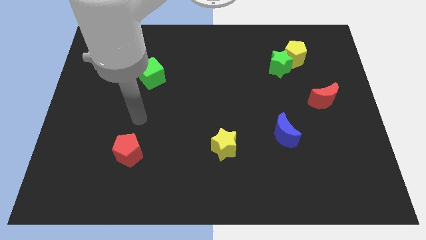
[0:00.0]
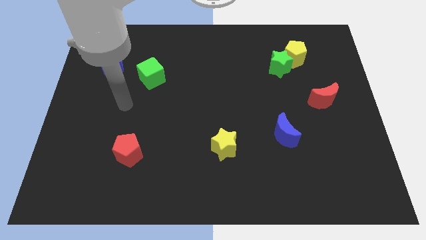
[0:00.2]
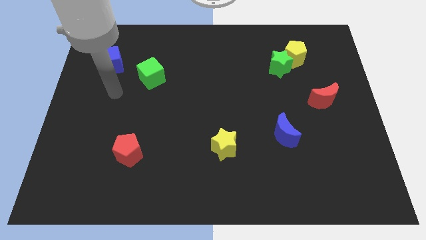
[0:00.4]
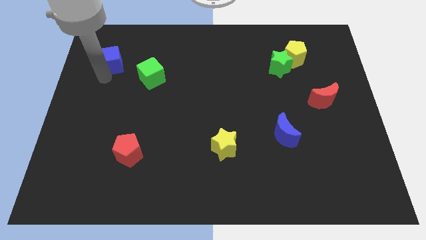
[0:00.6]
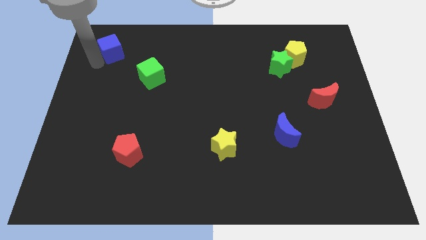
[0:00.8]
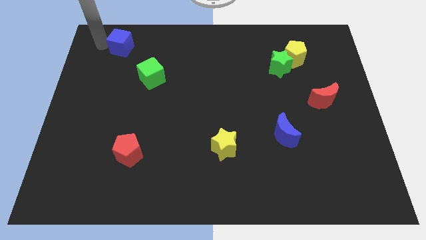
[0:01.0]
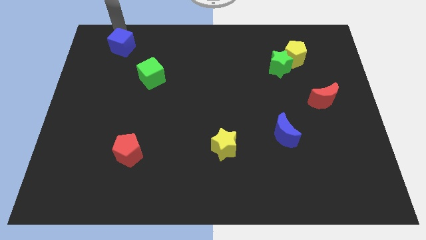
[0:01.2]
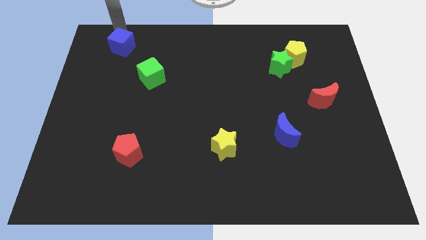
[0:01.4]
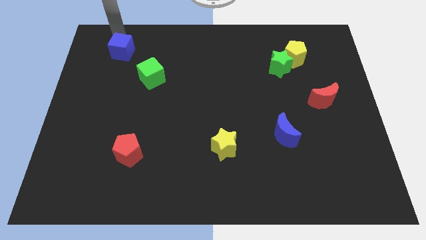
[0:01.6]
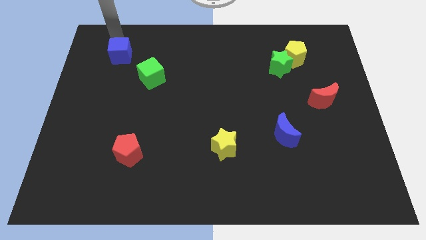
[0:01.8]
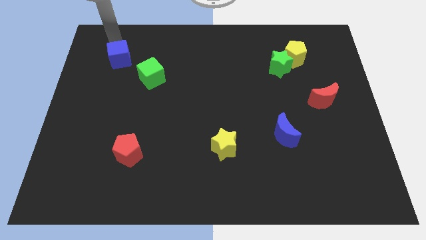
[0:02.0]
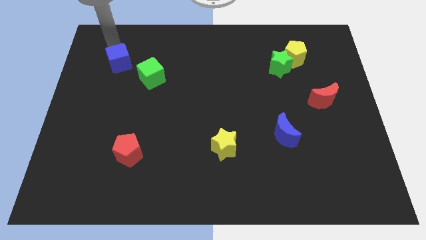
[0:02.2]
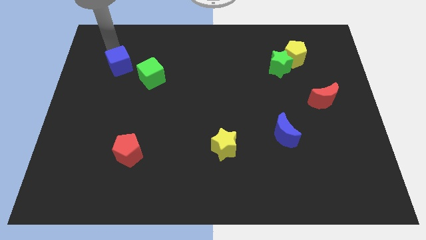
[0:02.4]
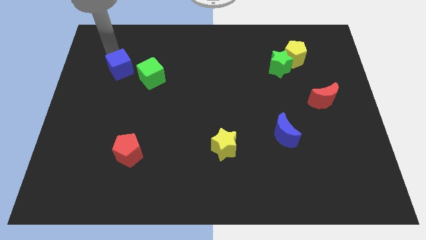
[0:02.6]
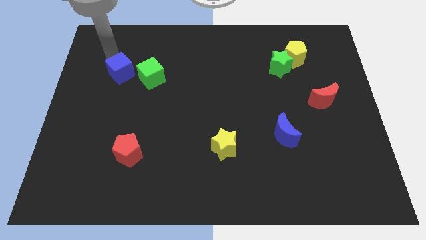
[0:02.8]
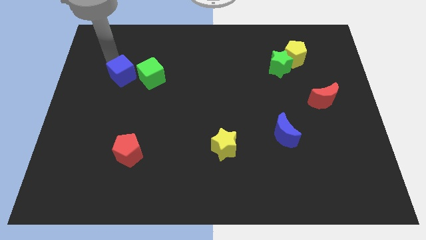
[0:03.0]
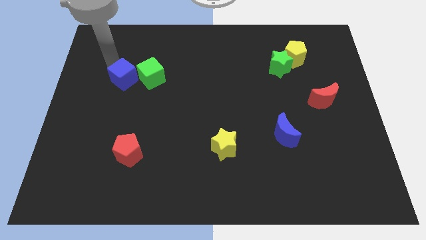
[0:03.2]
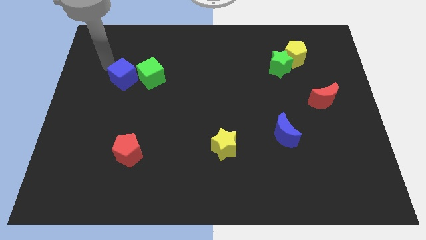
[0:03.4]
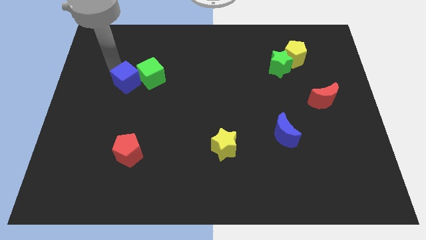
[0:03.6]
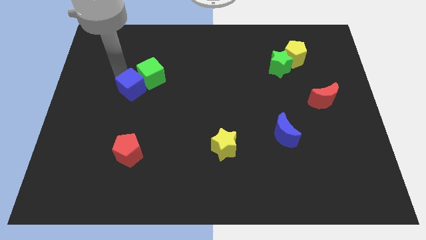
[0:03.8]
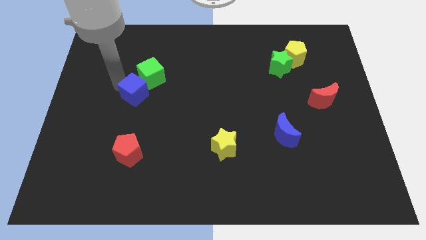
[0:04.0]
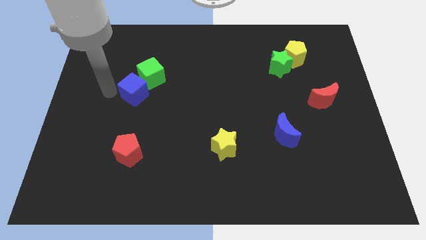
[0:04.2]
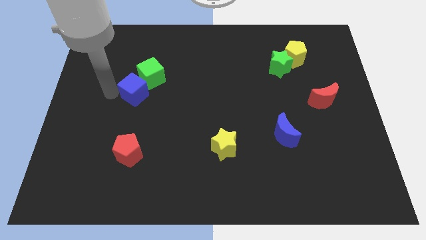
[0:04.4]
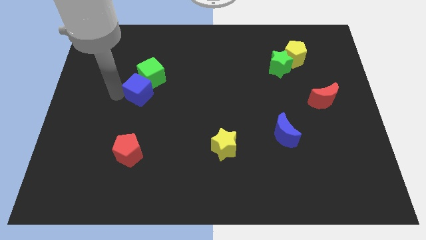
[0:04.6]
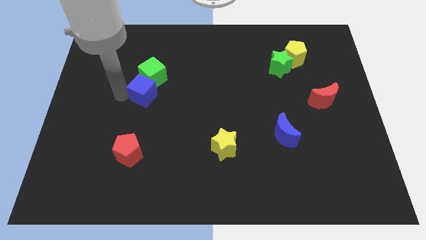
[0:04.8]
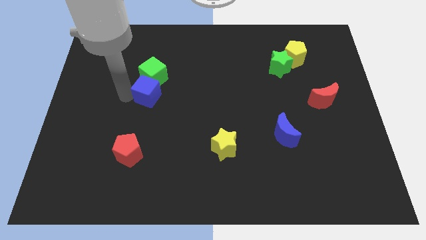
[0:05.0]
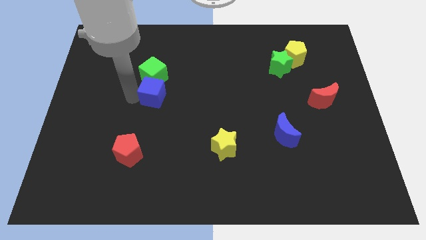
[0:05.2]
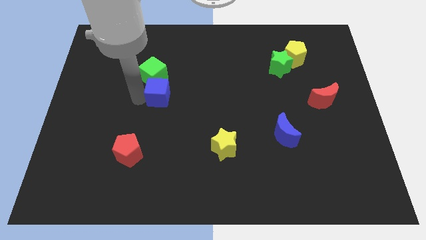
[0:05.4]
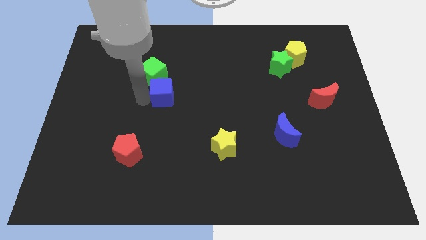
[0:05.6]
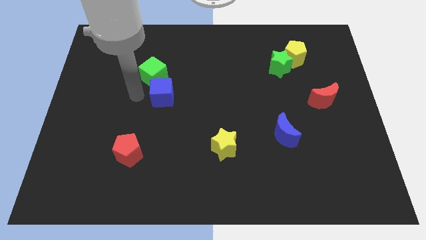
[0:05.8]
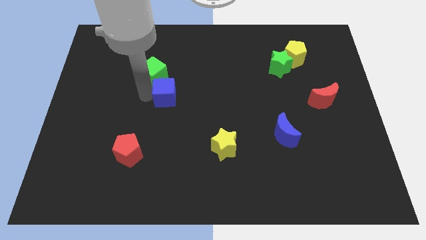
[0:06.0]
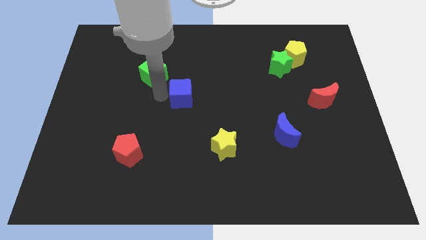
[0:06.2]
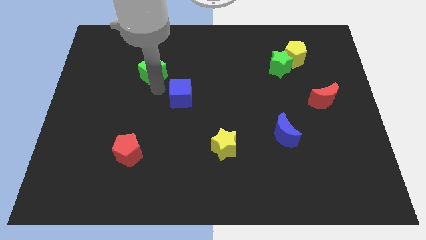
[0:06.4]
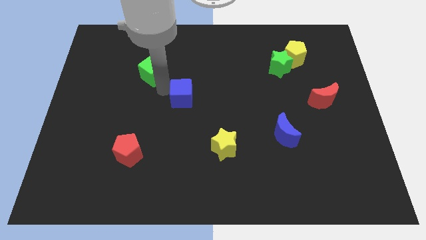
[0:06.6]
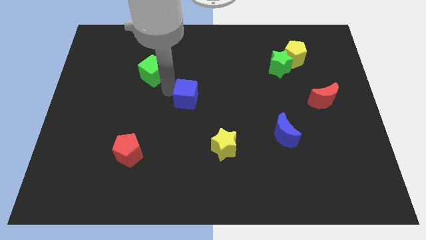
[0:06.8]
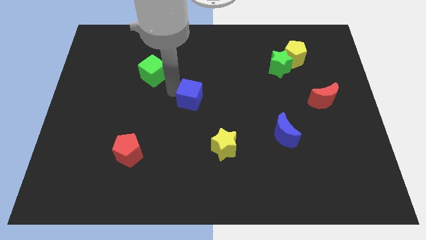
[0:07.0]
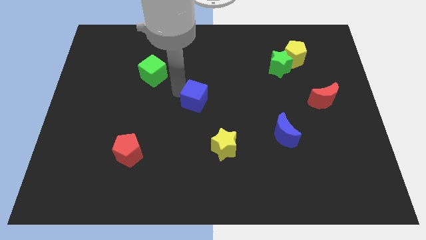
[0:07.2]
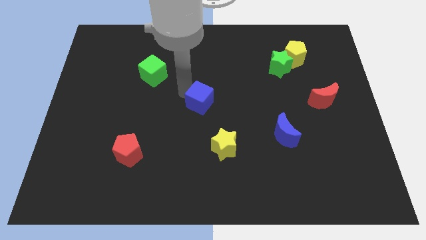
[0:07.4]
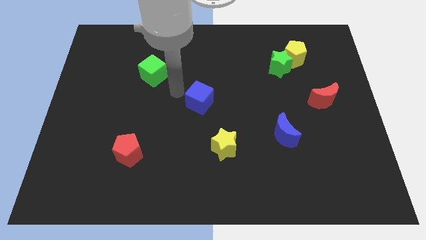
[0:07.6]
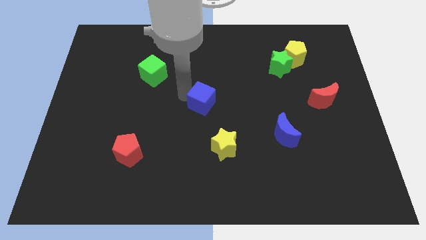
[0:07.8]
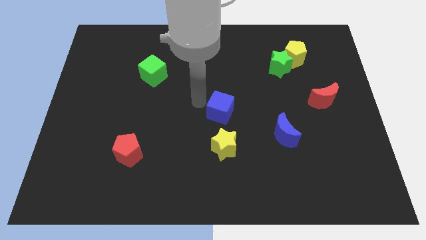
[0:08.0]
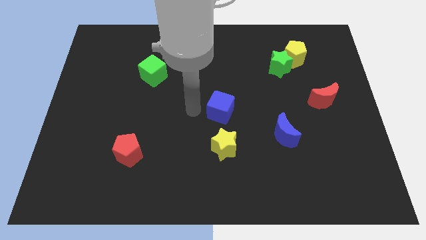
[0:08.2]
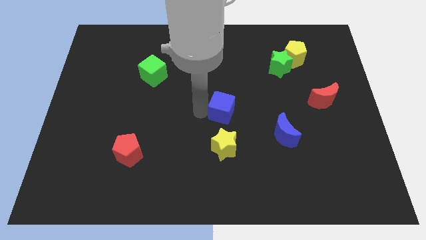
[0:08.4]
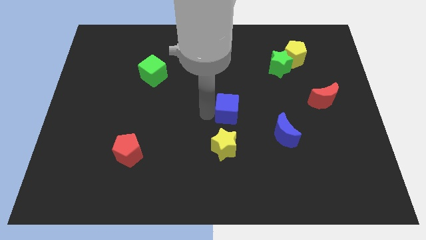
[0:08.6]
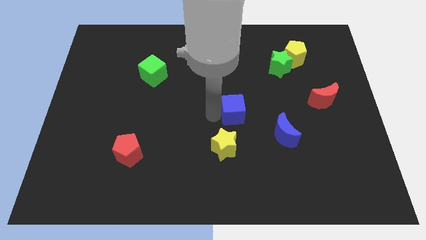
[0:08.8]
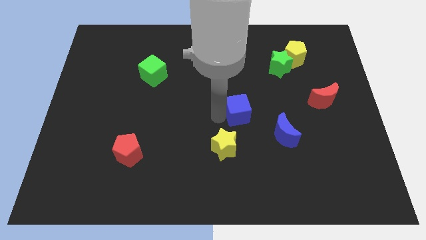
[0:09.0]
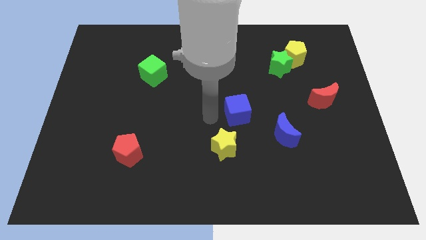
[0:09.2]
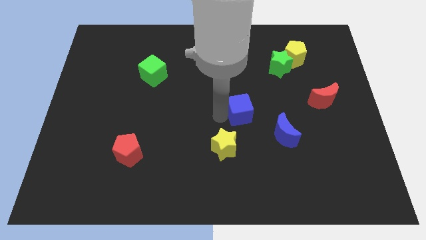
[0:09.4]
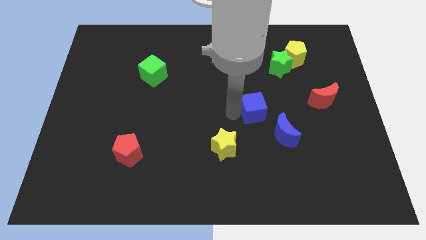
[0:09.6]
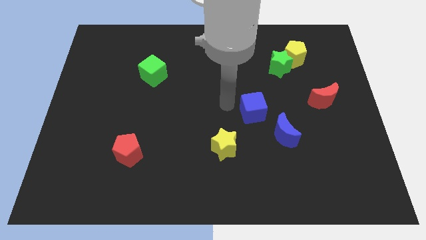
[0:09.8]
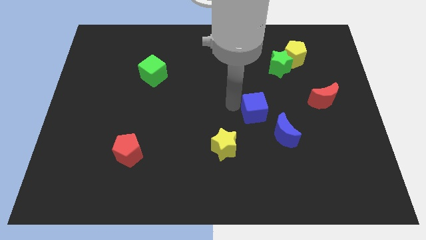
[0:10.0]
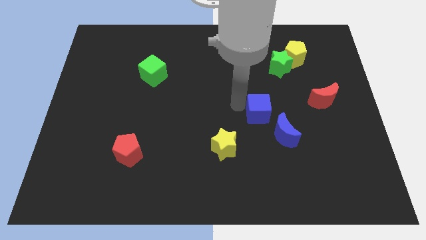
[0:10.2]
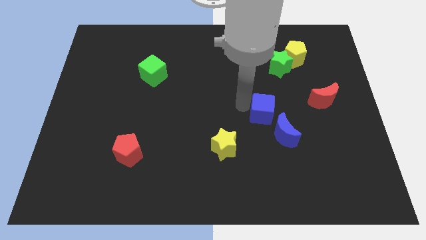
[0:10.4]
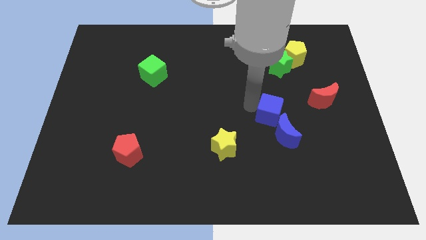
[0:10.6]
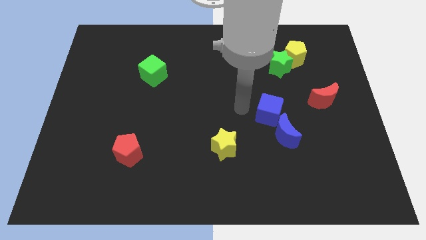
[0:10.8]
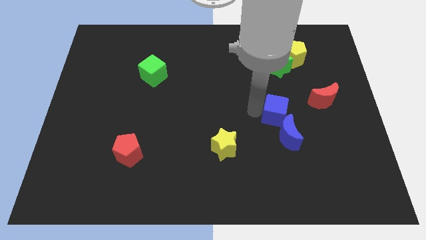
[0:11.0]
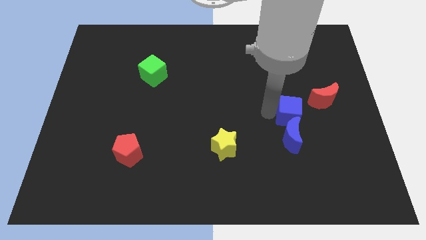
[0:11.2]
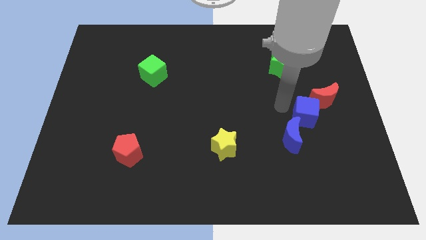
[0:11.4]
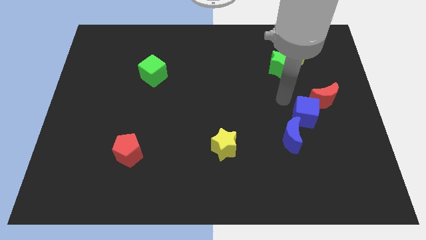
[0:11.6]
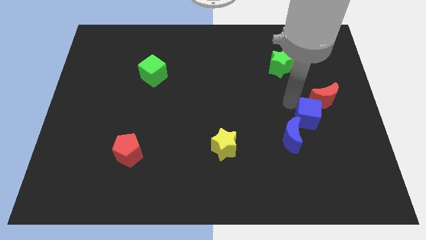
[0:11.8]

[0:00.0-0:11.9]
push the blue cube to the bottom of the red moon

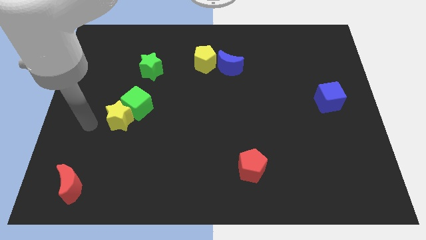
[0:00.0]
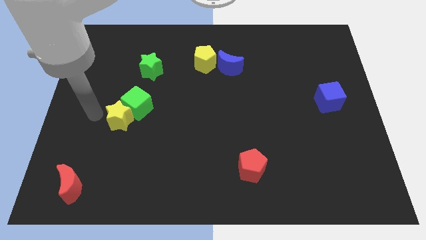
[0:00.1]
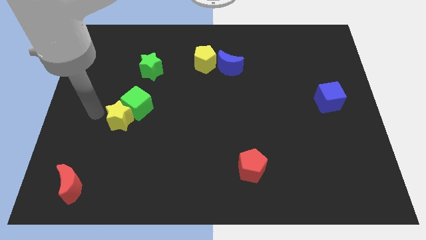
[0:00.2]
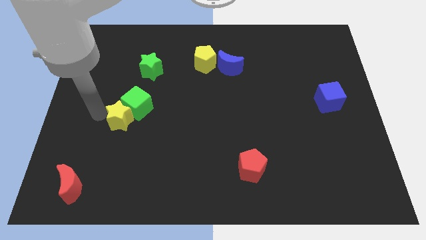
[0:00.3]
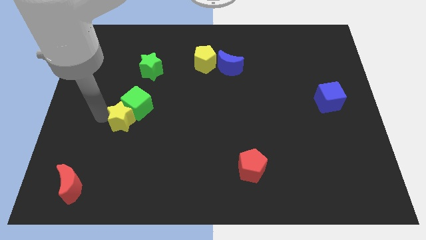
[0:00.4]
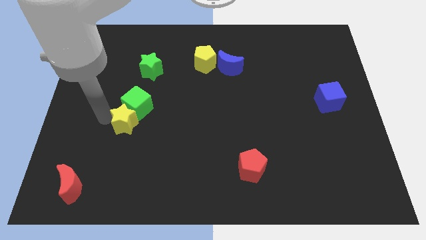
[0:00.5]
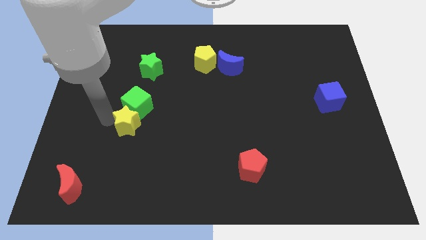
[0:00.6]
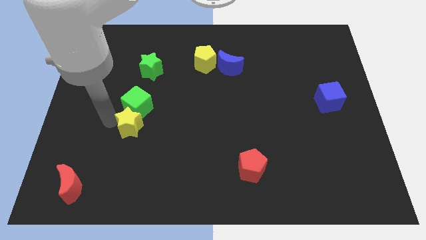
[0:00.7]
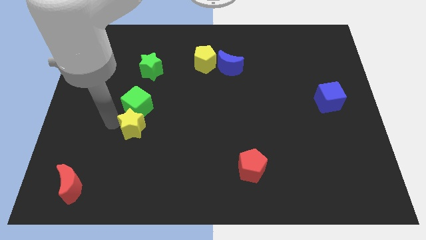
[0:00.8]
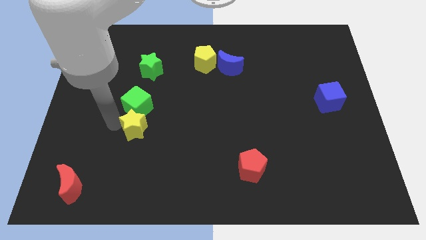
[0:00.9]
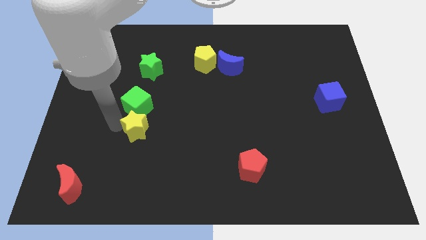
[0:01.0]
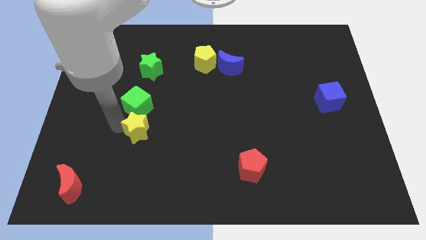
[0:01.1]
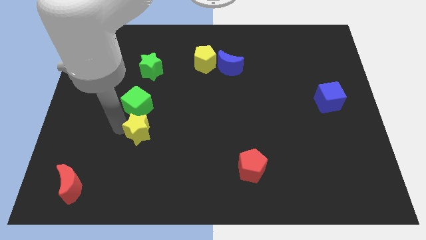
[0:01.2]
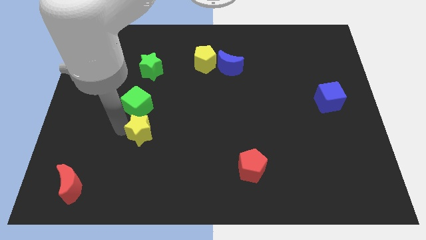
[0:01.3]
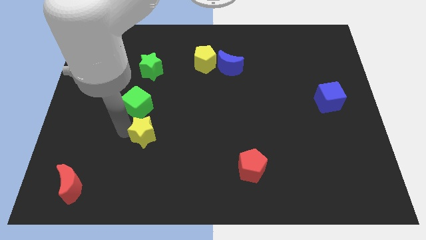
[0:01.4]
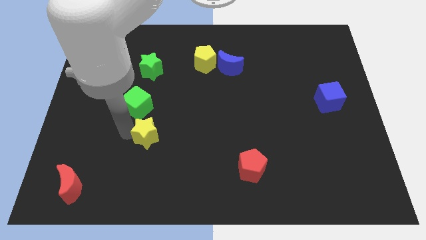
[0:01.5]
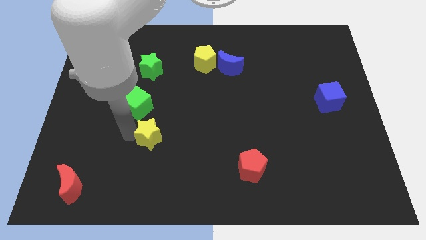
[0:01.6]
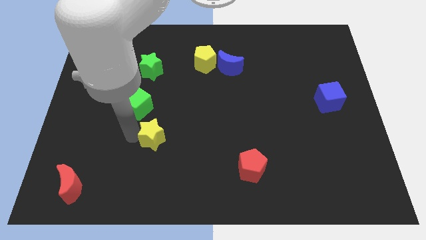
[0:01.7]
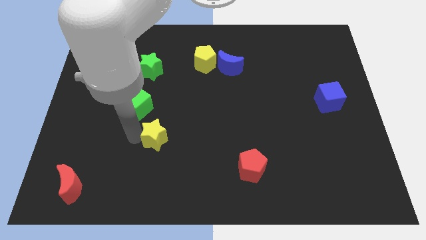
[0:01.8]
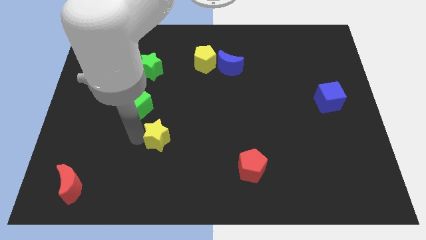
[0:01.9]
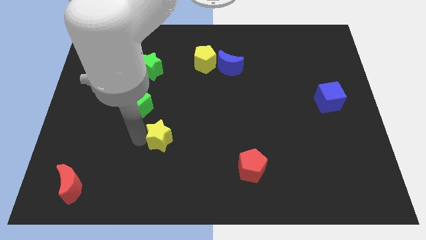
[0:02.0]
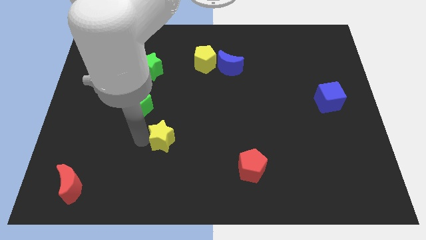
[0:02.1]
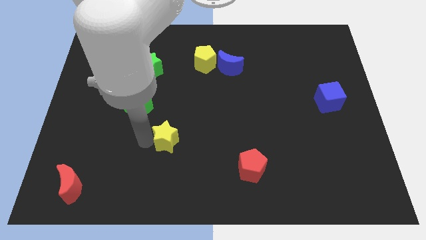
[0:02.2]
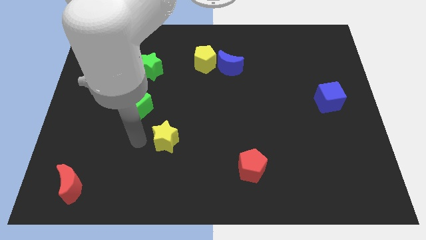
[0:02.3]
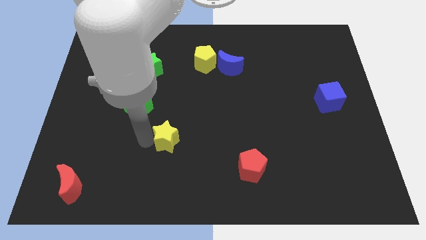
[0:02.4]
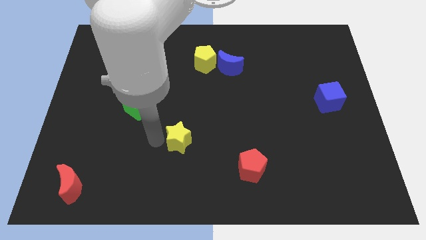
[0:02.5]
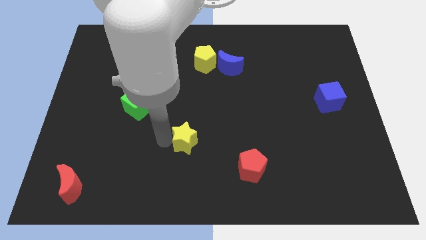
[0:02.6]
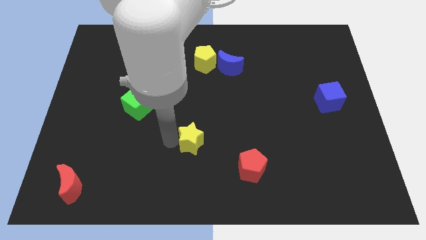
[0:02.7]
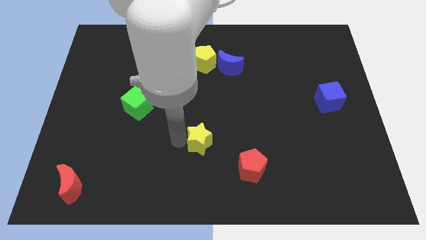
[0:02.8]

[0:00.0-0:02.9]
move the yellow star to the top left of the red pentagon
